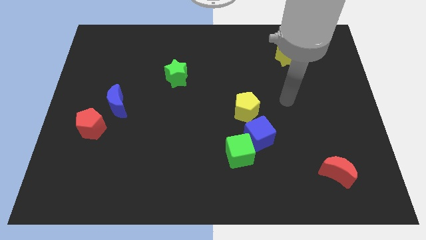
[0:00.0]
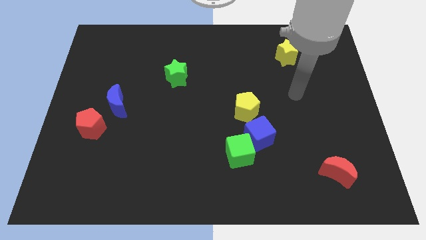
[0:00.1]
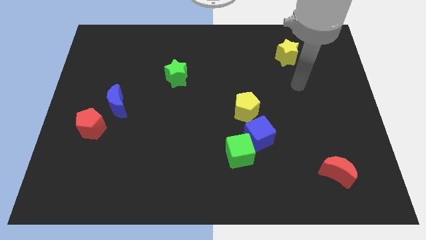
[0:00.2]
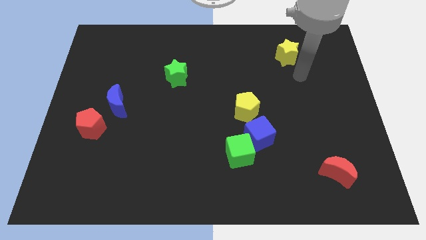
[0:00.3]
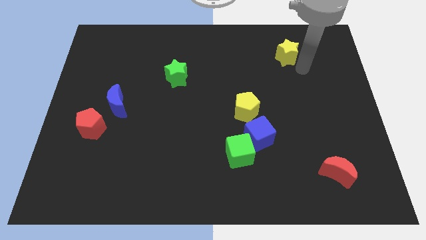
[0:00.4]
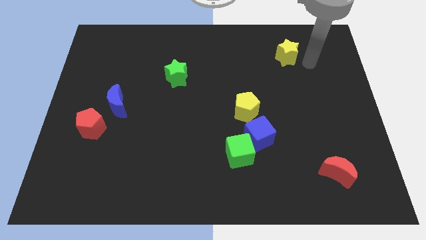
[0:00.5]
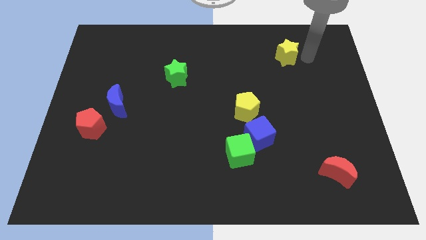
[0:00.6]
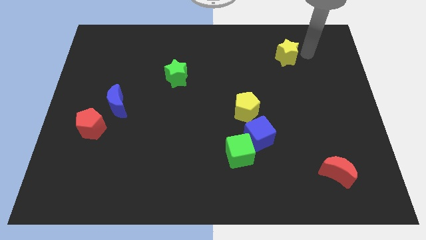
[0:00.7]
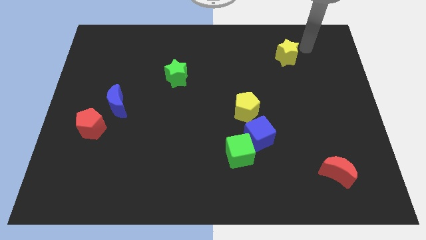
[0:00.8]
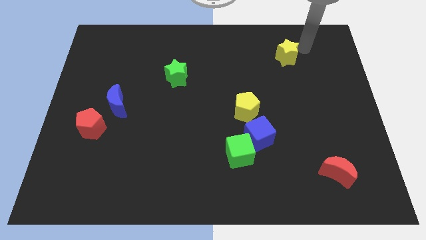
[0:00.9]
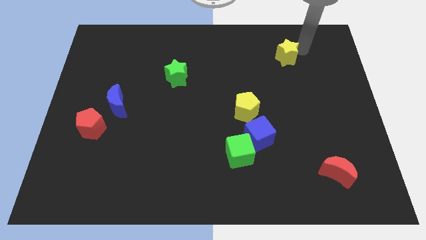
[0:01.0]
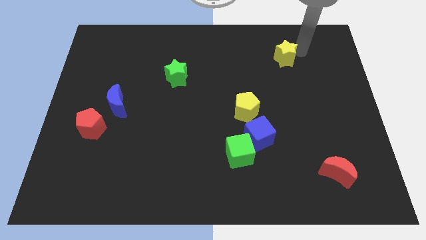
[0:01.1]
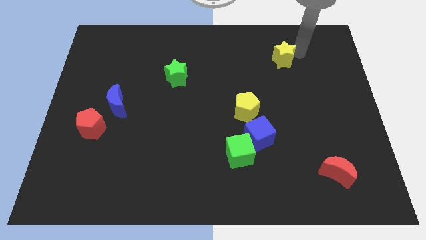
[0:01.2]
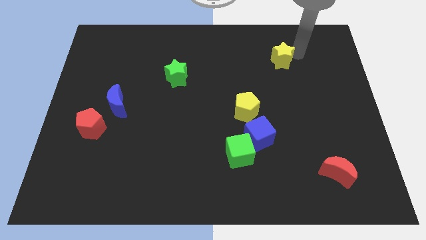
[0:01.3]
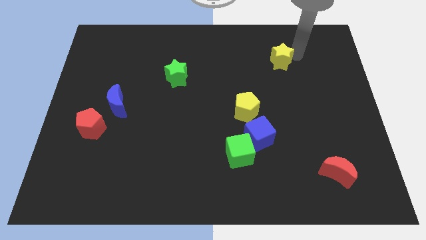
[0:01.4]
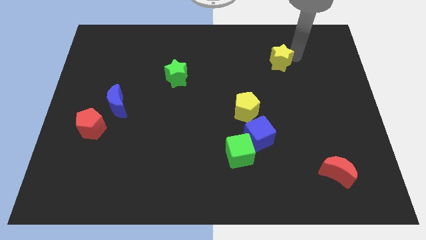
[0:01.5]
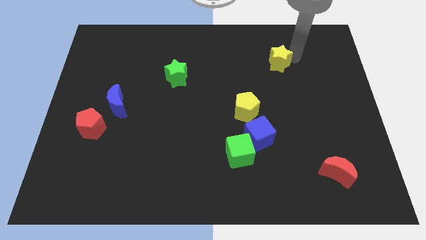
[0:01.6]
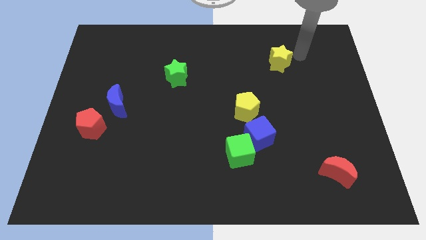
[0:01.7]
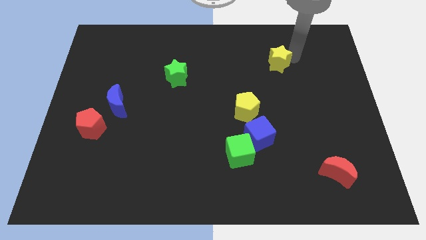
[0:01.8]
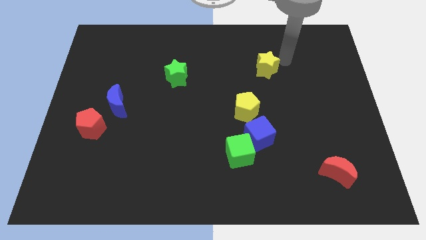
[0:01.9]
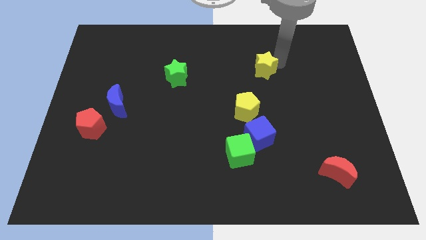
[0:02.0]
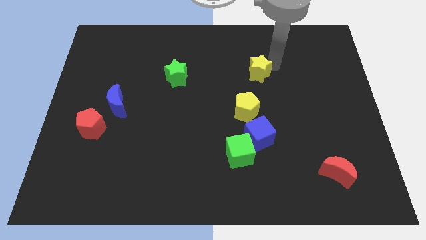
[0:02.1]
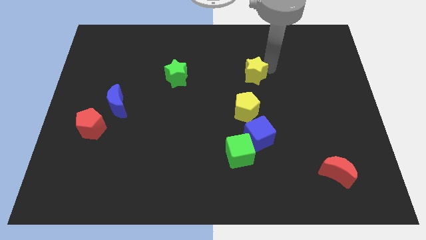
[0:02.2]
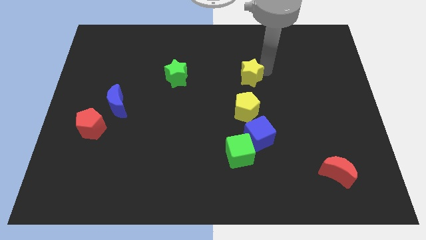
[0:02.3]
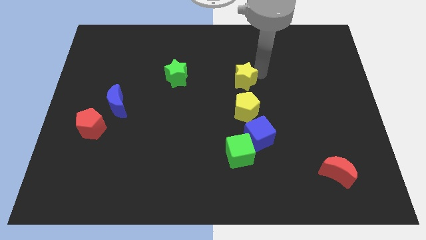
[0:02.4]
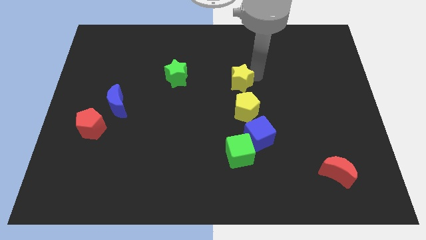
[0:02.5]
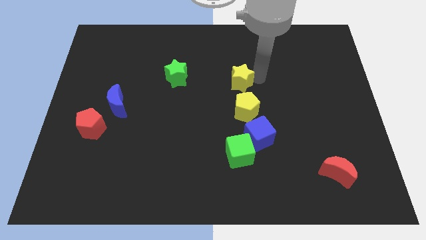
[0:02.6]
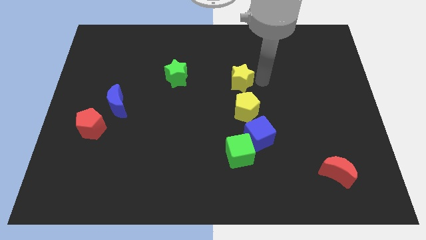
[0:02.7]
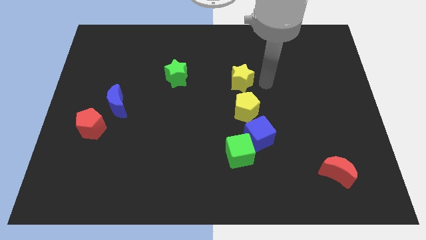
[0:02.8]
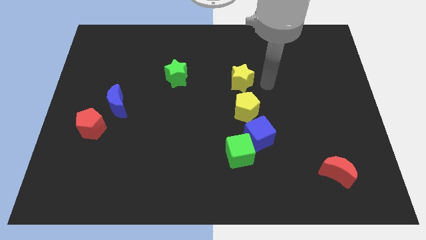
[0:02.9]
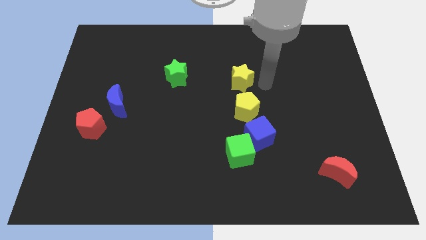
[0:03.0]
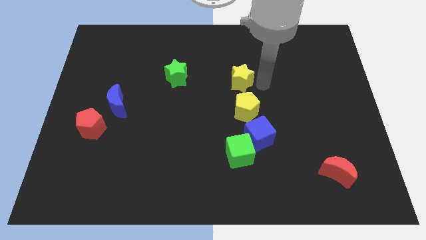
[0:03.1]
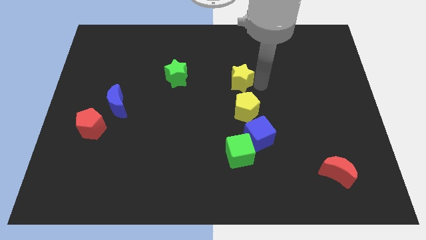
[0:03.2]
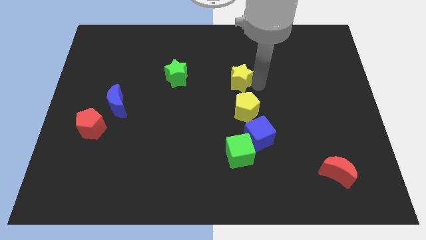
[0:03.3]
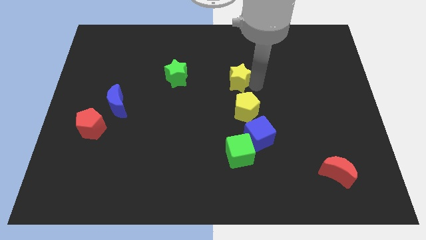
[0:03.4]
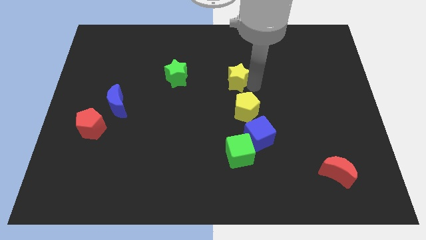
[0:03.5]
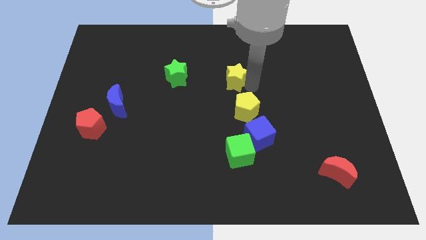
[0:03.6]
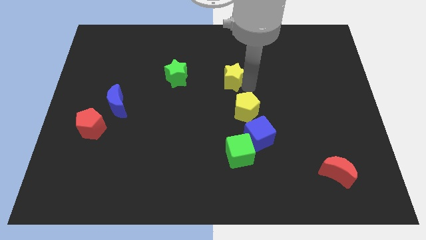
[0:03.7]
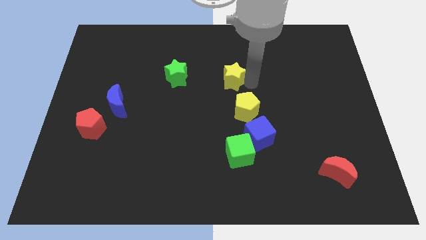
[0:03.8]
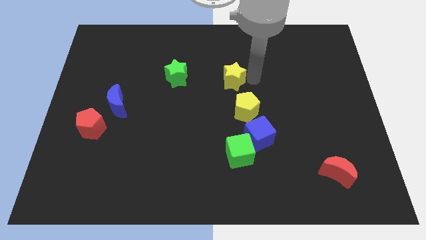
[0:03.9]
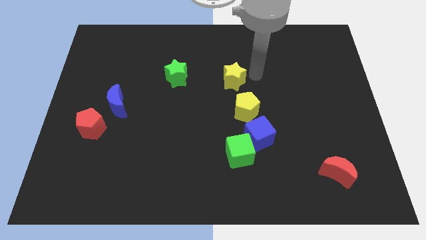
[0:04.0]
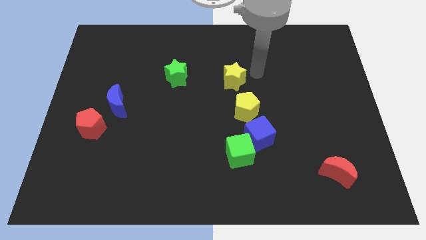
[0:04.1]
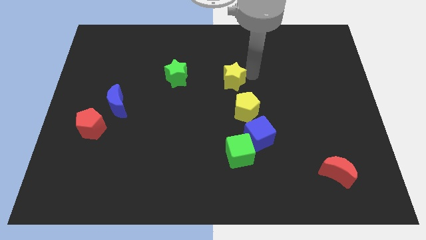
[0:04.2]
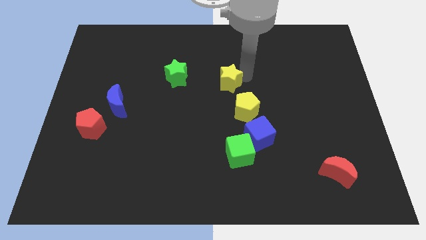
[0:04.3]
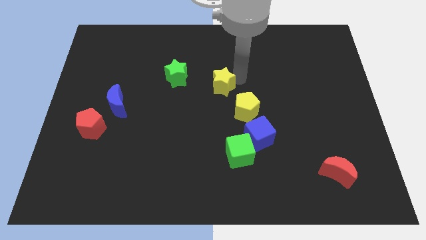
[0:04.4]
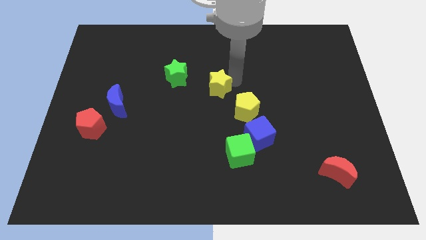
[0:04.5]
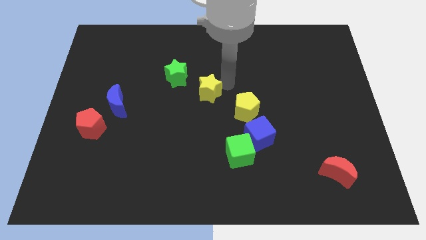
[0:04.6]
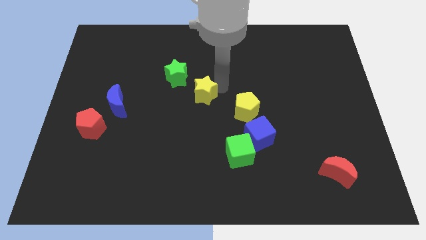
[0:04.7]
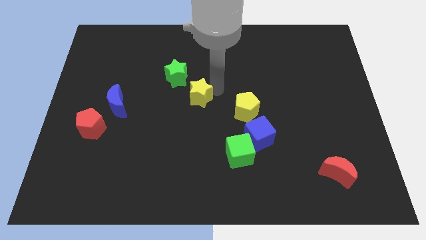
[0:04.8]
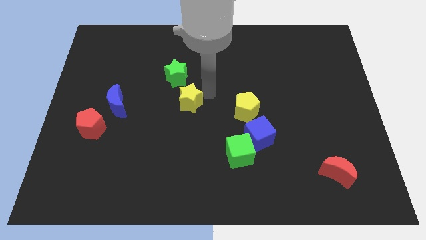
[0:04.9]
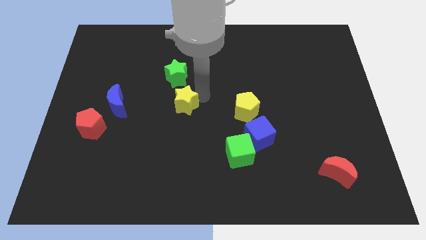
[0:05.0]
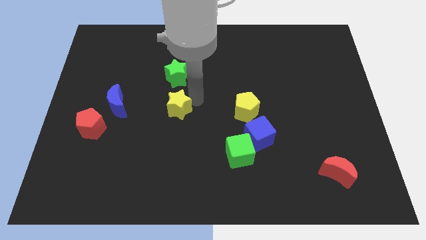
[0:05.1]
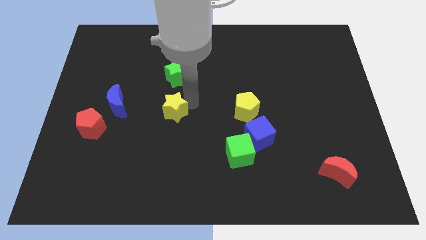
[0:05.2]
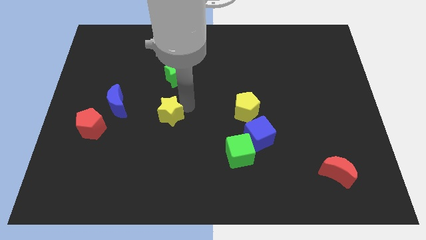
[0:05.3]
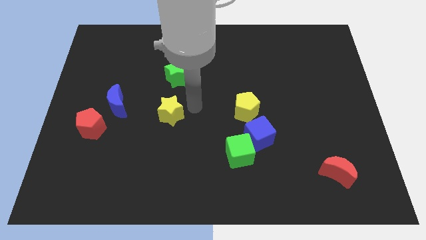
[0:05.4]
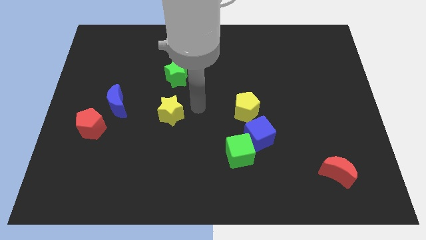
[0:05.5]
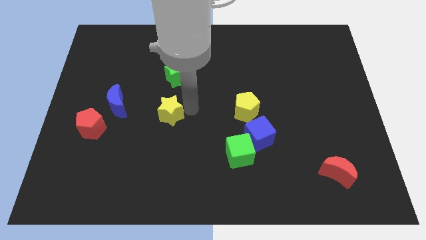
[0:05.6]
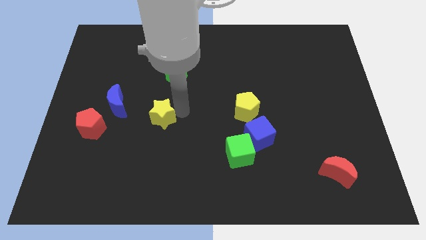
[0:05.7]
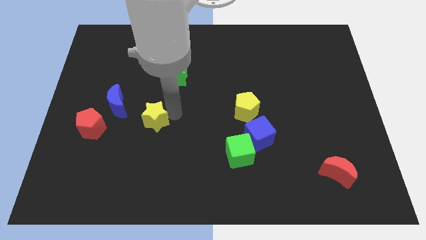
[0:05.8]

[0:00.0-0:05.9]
move the yellow star to the bottom right of the blue moon
